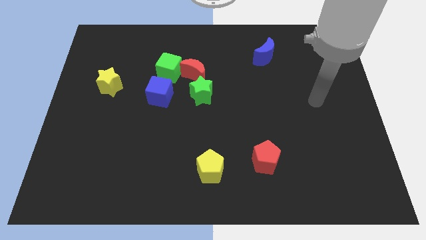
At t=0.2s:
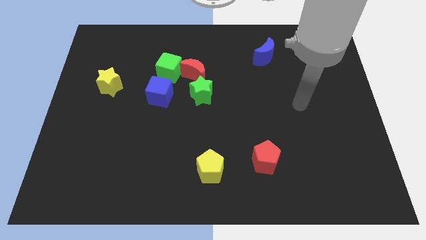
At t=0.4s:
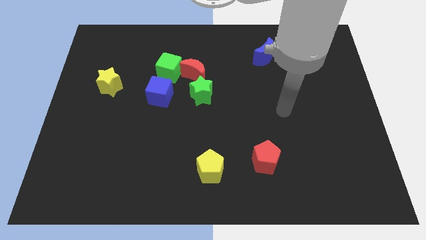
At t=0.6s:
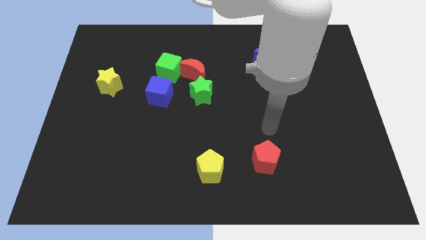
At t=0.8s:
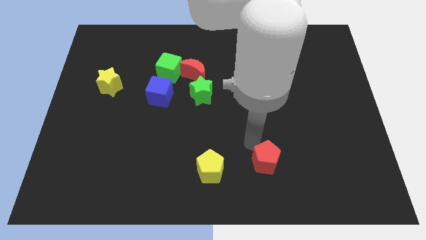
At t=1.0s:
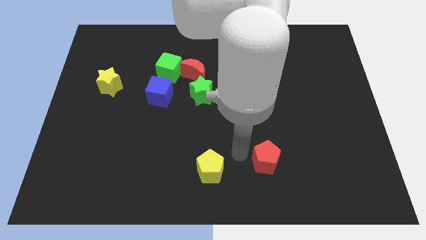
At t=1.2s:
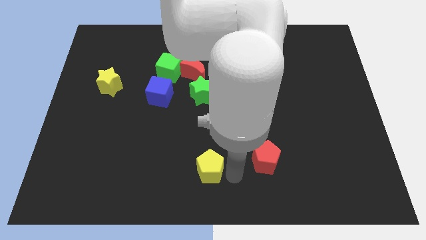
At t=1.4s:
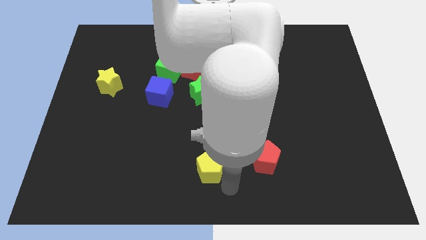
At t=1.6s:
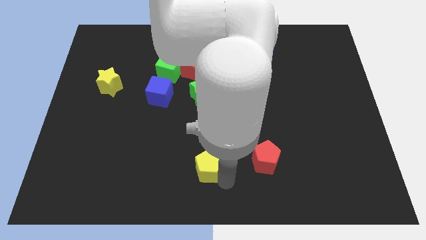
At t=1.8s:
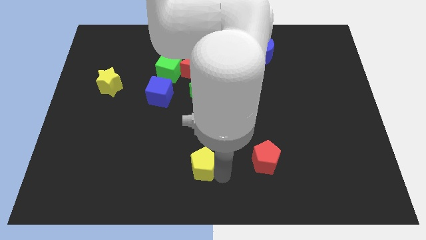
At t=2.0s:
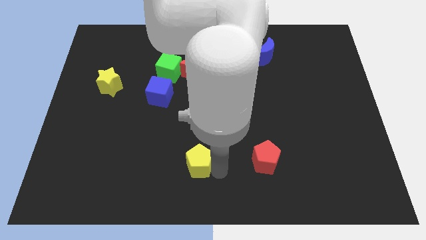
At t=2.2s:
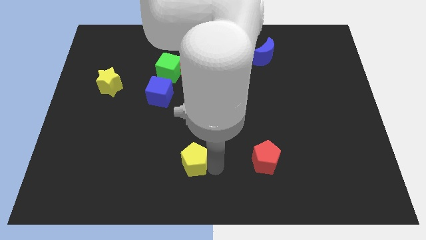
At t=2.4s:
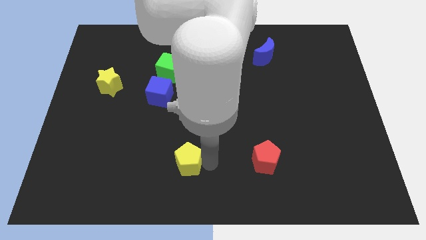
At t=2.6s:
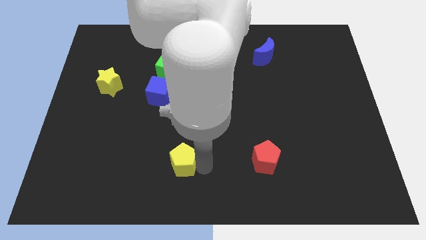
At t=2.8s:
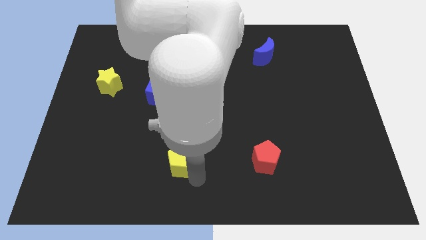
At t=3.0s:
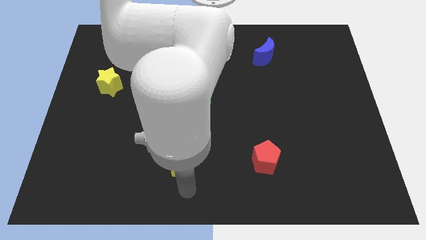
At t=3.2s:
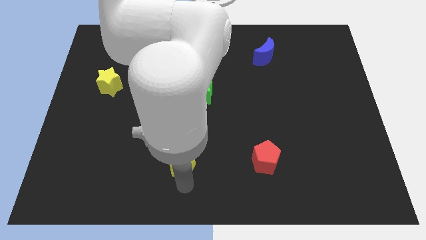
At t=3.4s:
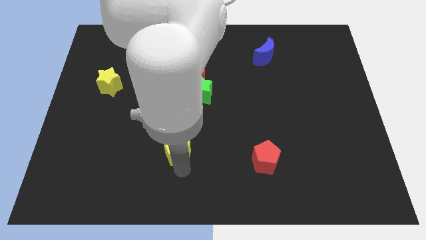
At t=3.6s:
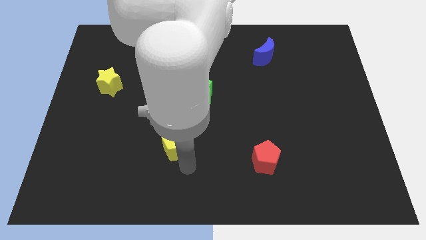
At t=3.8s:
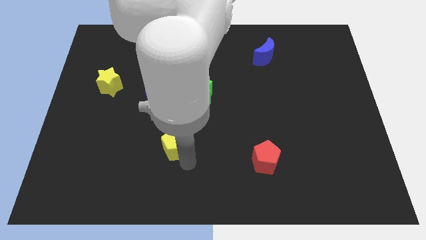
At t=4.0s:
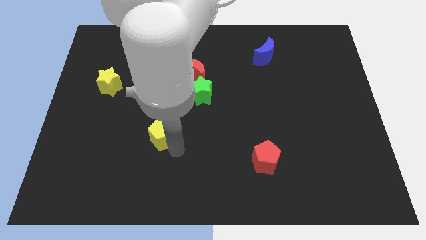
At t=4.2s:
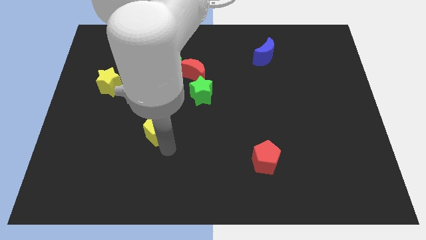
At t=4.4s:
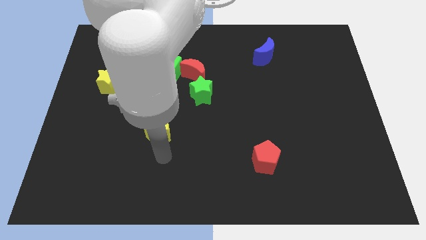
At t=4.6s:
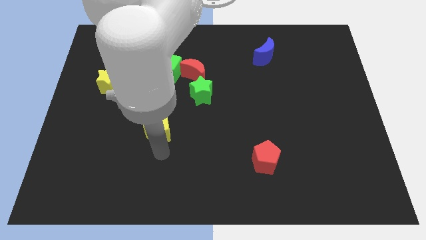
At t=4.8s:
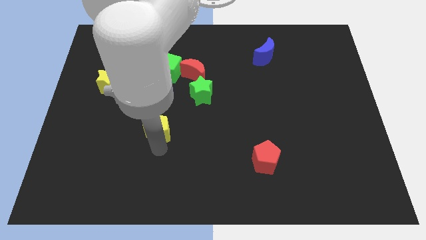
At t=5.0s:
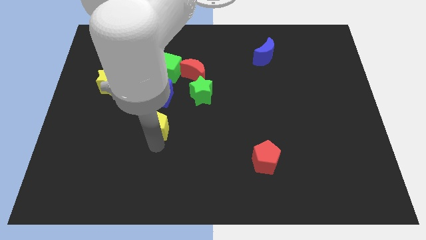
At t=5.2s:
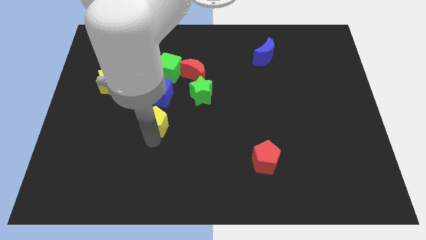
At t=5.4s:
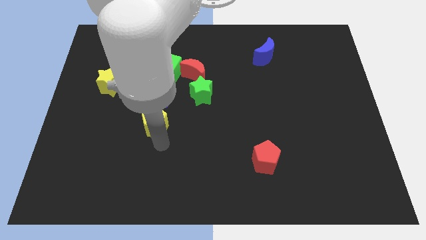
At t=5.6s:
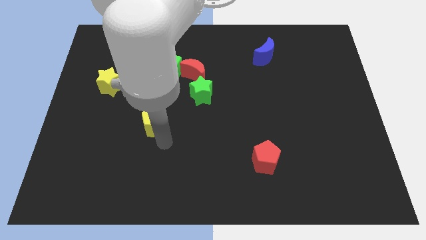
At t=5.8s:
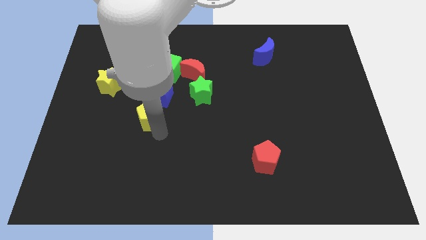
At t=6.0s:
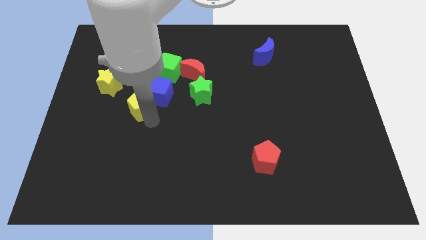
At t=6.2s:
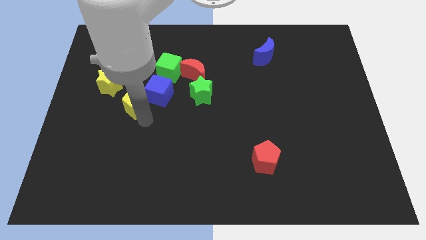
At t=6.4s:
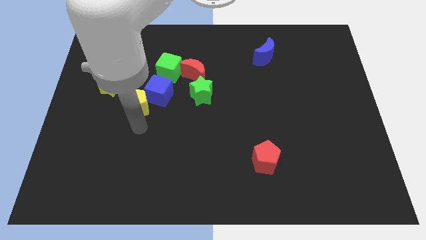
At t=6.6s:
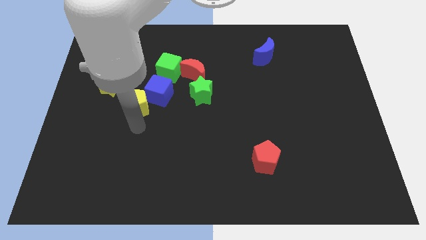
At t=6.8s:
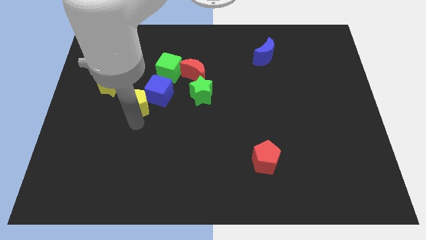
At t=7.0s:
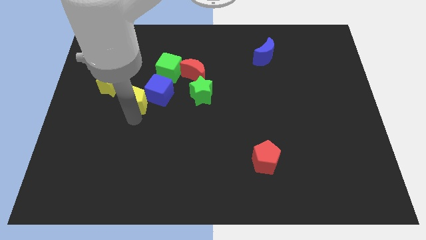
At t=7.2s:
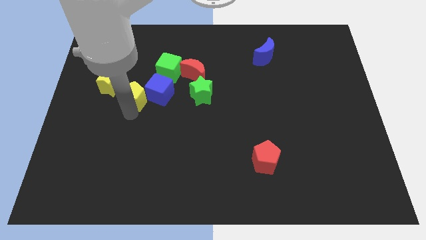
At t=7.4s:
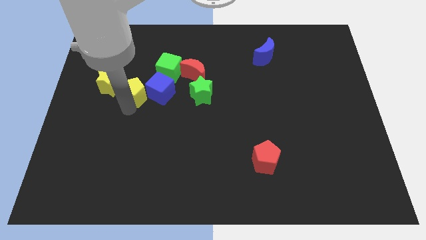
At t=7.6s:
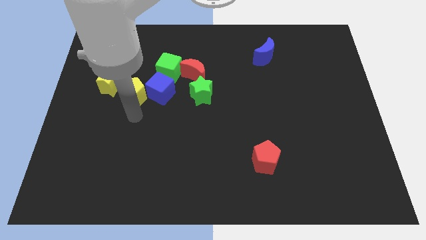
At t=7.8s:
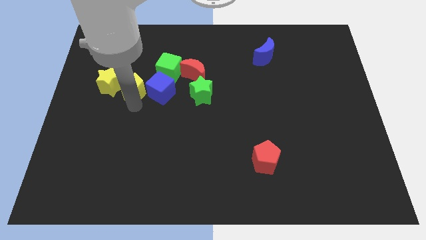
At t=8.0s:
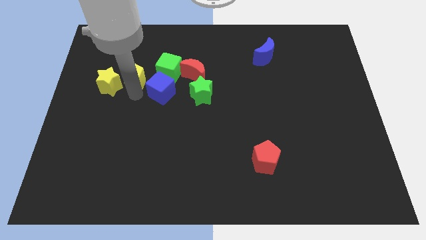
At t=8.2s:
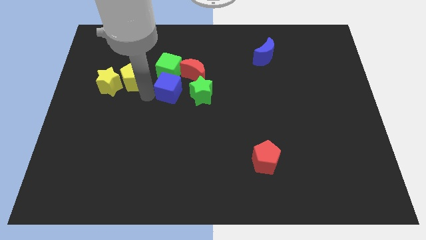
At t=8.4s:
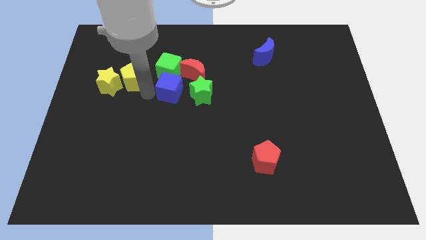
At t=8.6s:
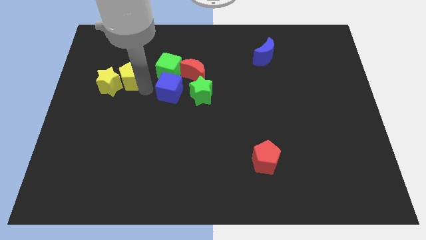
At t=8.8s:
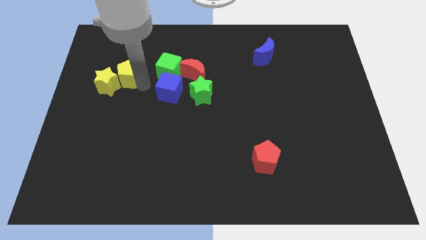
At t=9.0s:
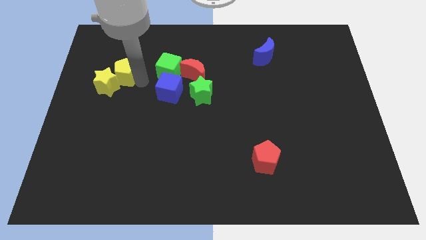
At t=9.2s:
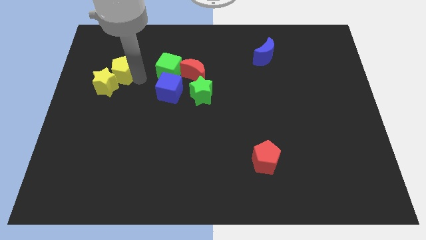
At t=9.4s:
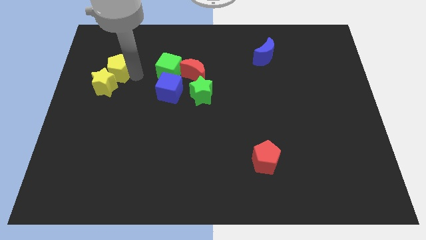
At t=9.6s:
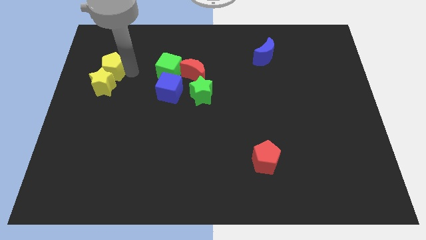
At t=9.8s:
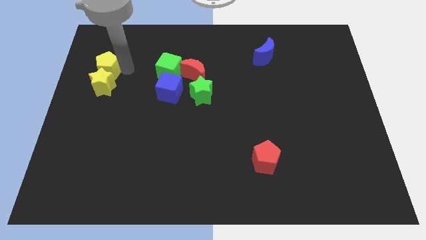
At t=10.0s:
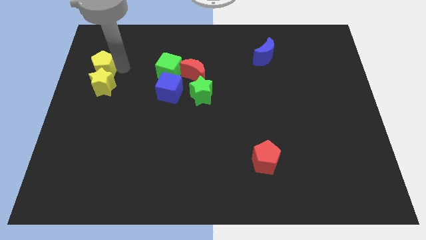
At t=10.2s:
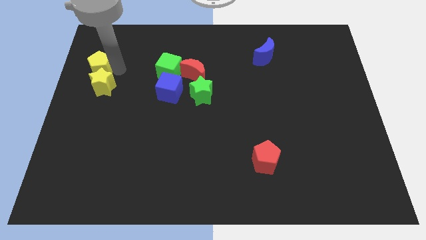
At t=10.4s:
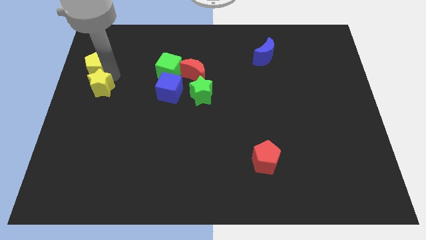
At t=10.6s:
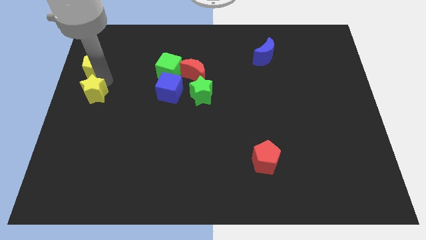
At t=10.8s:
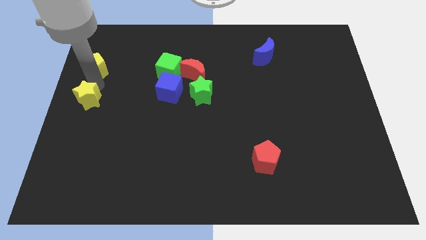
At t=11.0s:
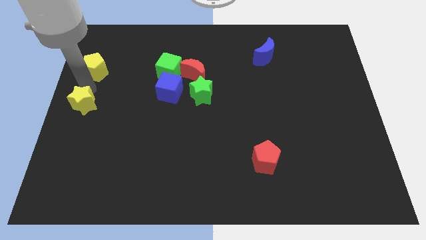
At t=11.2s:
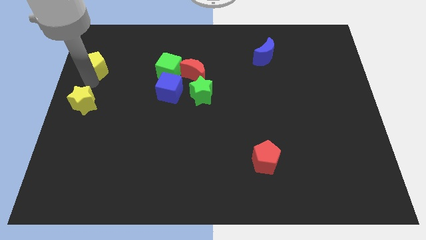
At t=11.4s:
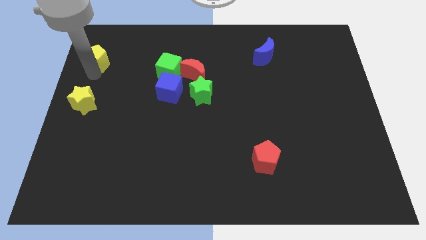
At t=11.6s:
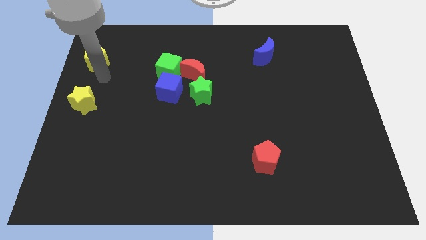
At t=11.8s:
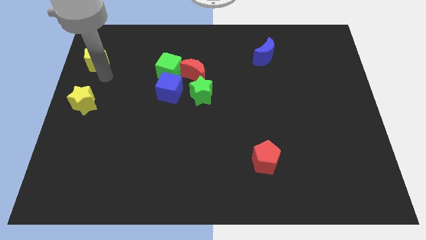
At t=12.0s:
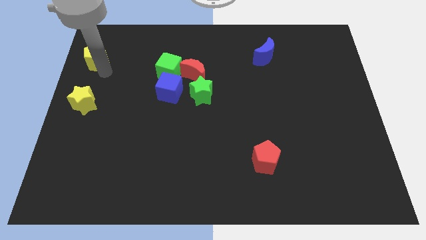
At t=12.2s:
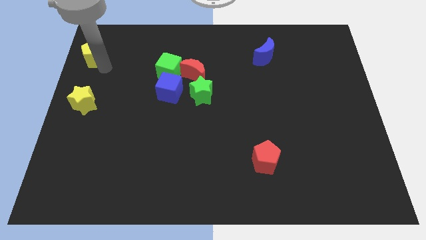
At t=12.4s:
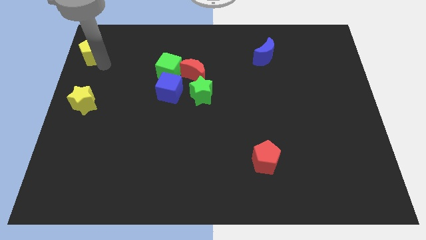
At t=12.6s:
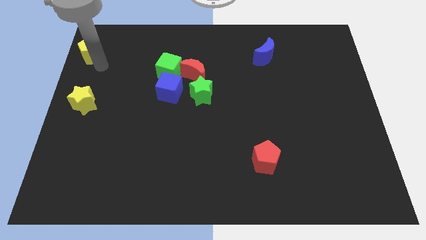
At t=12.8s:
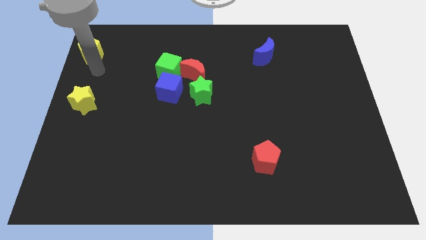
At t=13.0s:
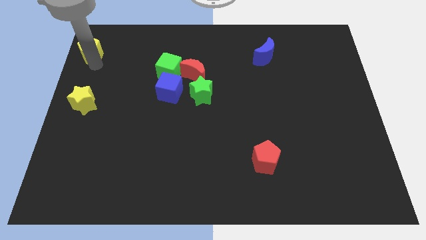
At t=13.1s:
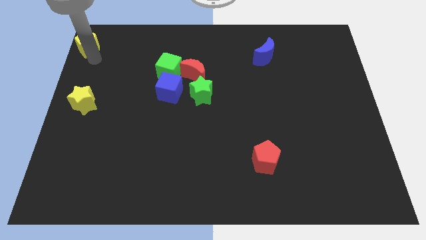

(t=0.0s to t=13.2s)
move the yellow pentagon to the top left corner

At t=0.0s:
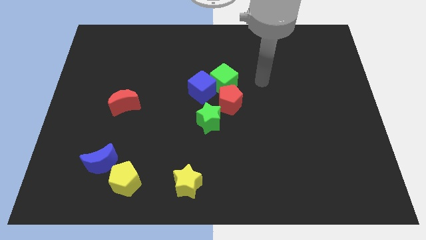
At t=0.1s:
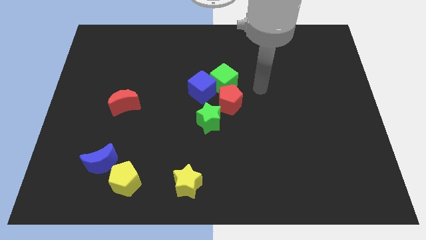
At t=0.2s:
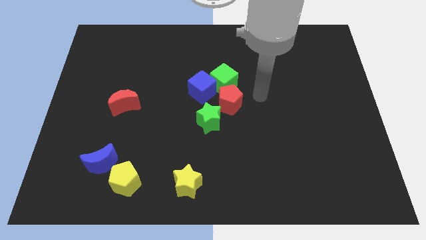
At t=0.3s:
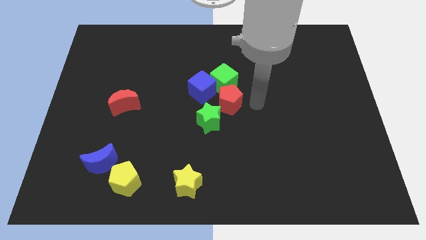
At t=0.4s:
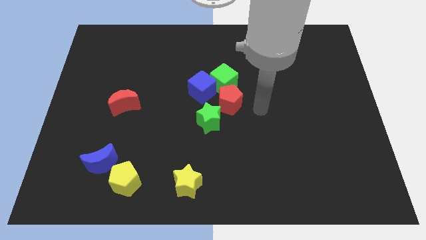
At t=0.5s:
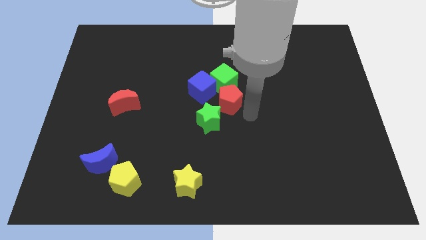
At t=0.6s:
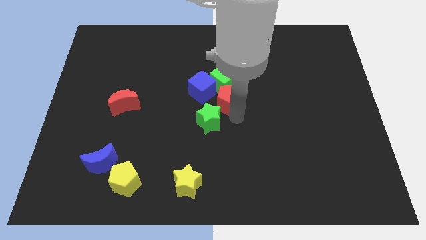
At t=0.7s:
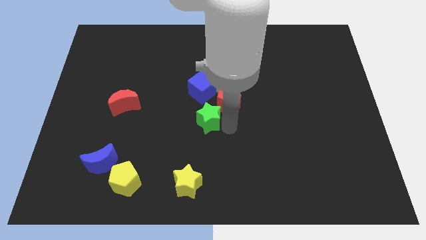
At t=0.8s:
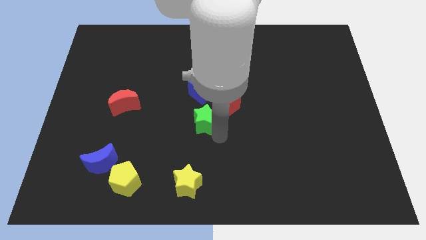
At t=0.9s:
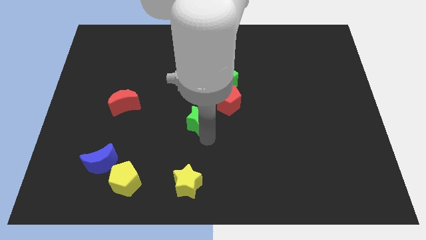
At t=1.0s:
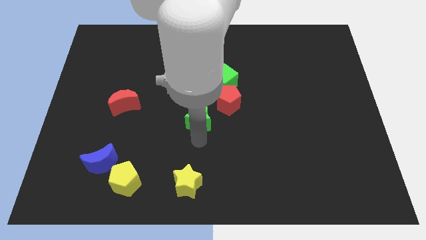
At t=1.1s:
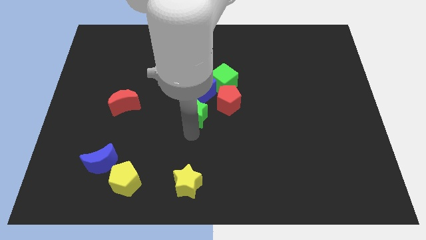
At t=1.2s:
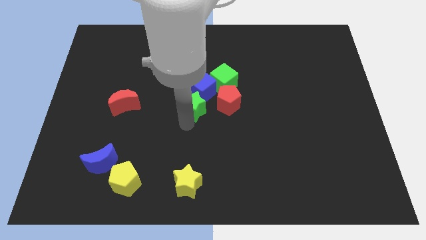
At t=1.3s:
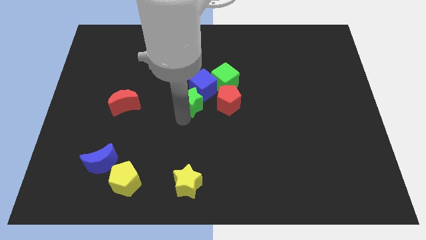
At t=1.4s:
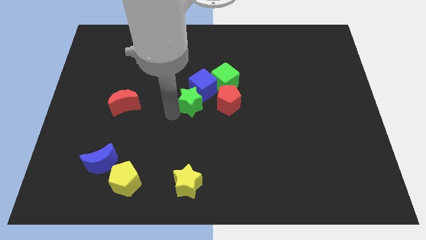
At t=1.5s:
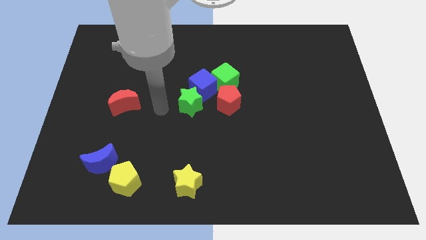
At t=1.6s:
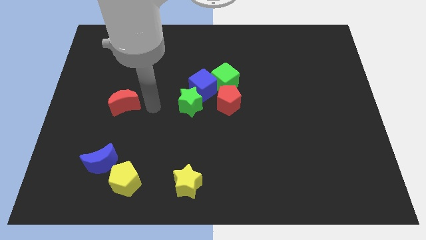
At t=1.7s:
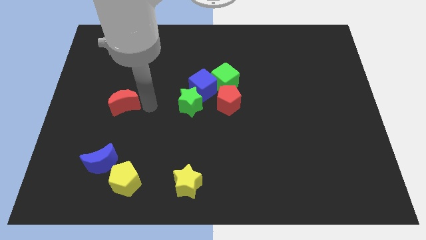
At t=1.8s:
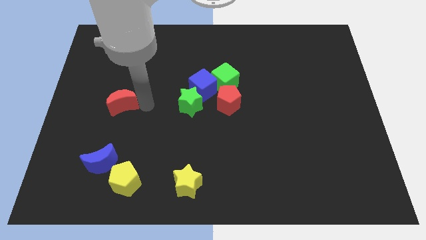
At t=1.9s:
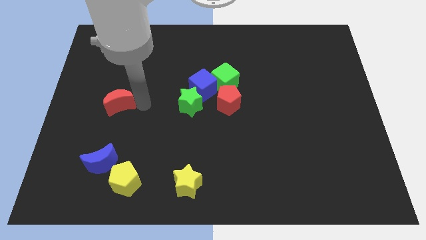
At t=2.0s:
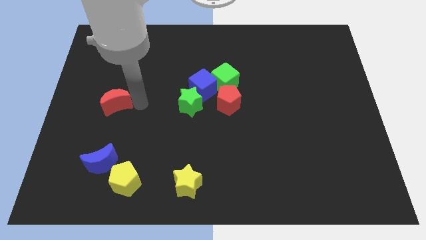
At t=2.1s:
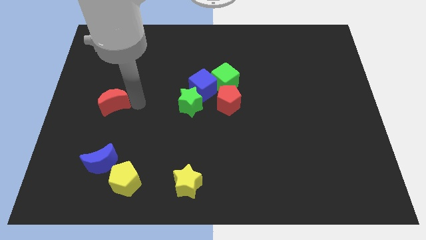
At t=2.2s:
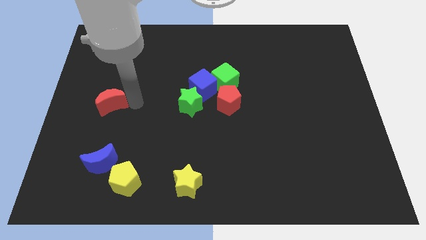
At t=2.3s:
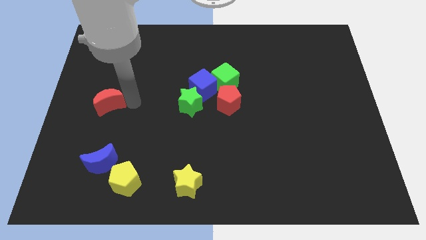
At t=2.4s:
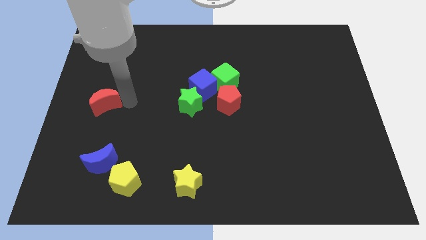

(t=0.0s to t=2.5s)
push the red moon to the left side of the board
